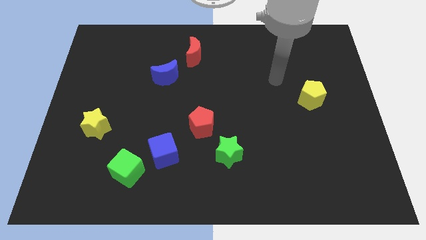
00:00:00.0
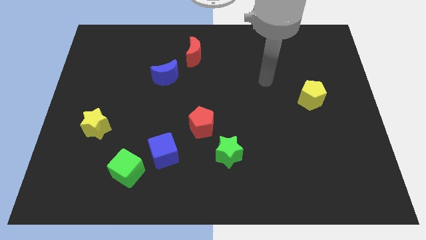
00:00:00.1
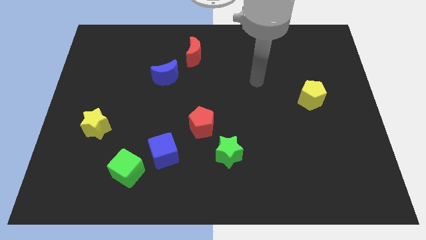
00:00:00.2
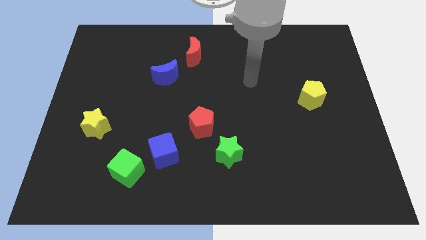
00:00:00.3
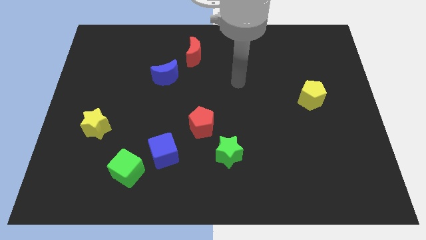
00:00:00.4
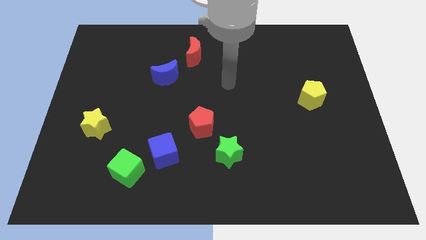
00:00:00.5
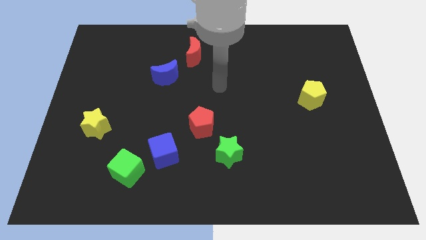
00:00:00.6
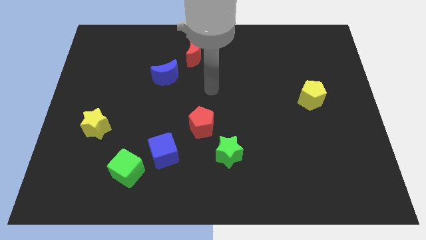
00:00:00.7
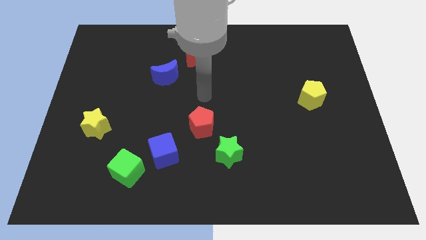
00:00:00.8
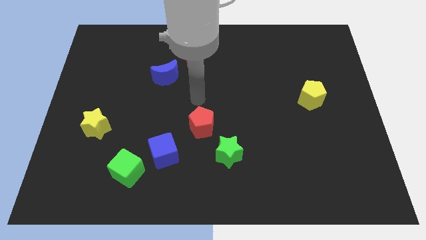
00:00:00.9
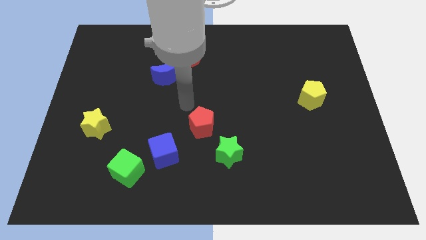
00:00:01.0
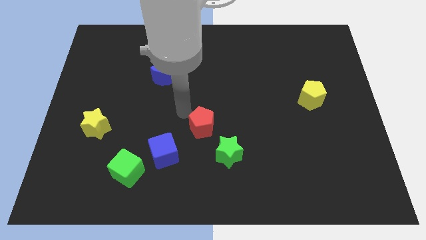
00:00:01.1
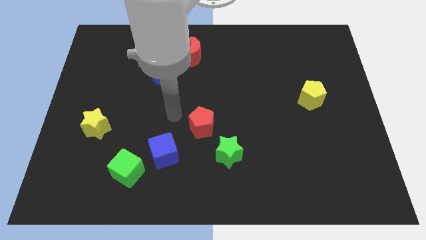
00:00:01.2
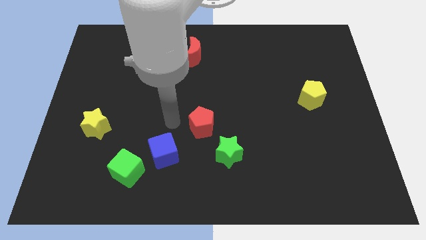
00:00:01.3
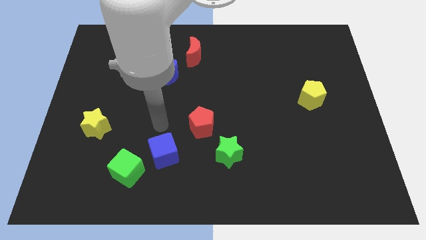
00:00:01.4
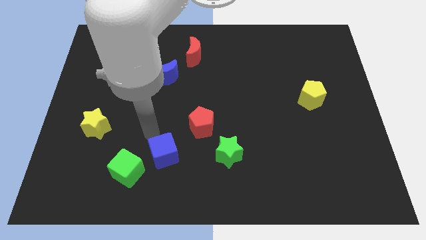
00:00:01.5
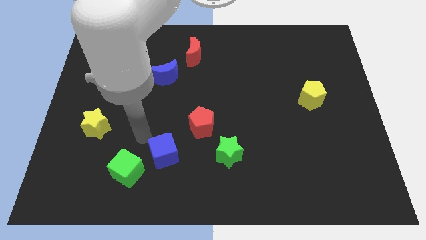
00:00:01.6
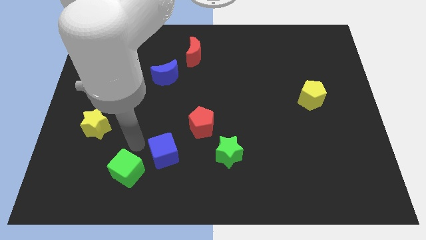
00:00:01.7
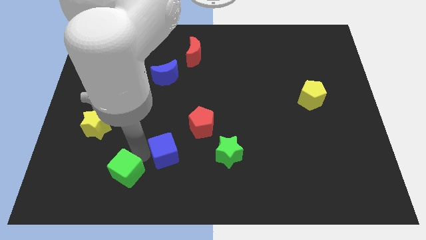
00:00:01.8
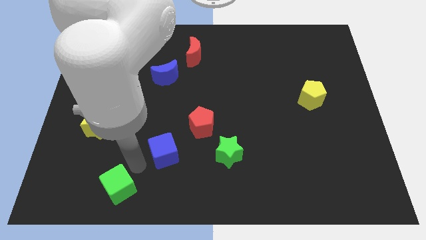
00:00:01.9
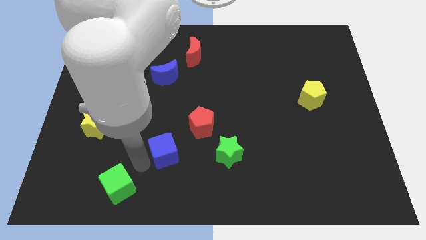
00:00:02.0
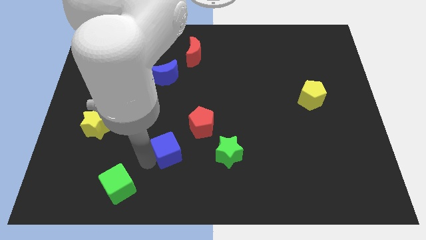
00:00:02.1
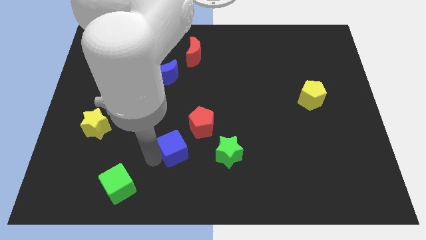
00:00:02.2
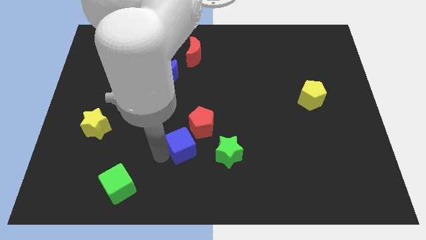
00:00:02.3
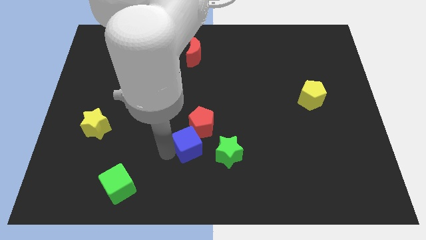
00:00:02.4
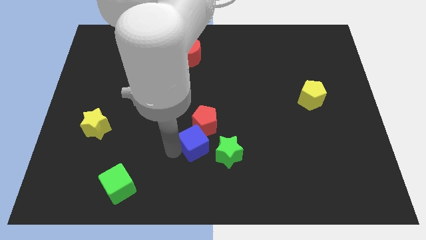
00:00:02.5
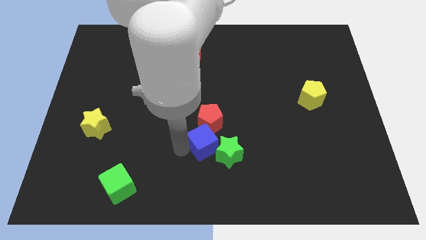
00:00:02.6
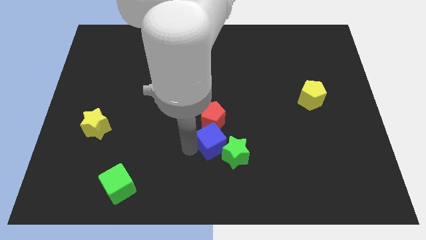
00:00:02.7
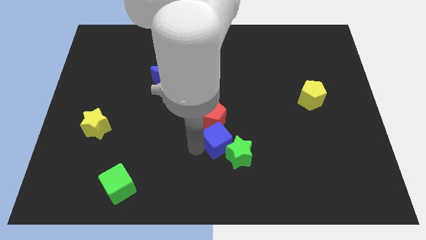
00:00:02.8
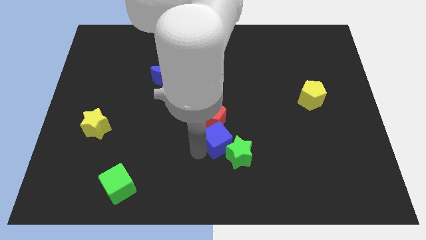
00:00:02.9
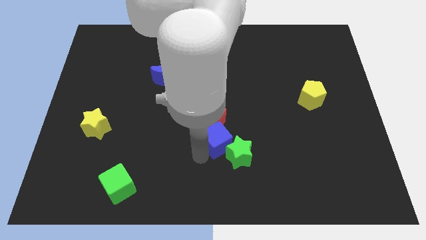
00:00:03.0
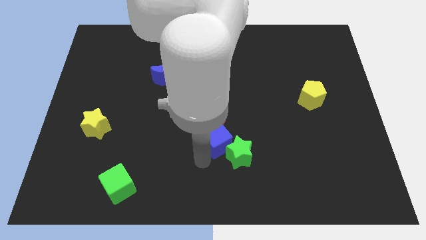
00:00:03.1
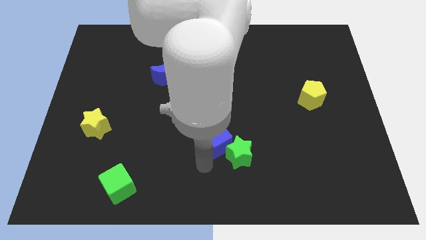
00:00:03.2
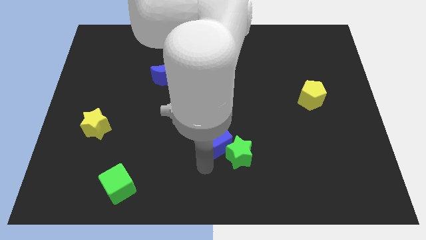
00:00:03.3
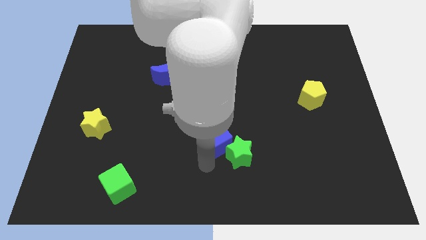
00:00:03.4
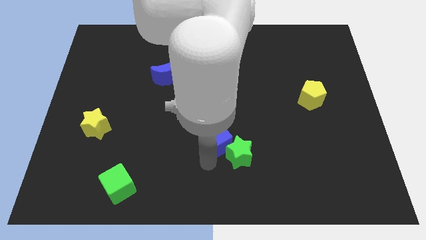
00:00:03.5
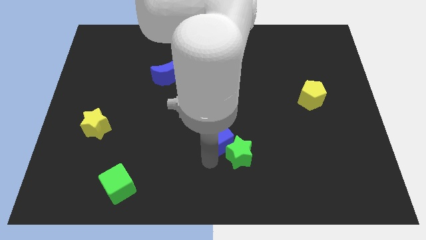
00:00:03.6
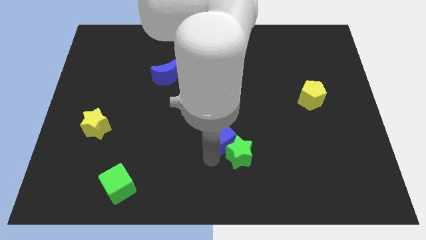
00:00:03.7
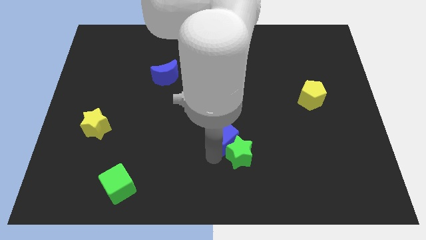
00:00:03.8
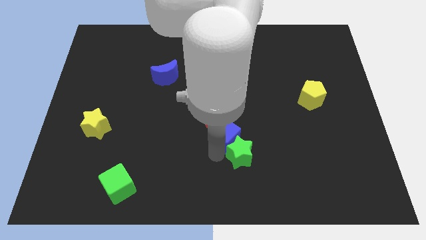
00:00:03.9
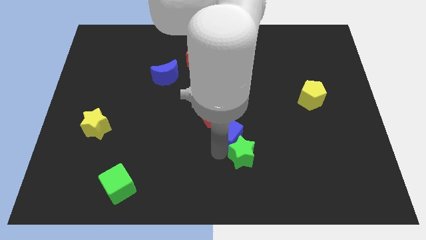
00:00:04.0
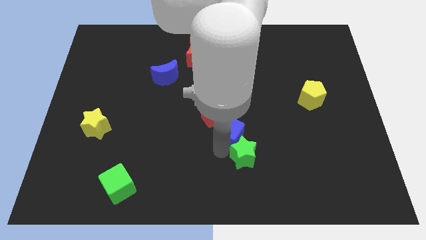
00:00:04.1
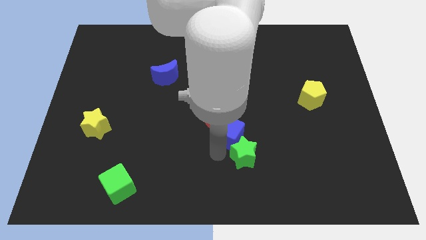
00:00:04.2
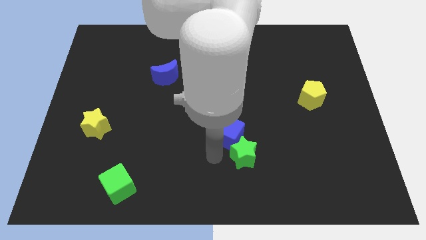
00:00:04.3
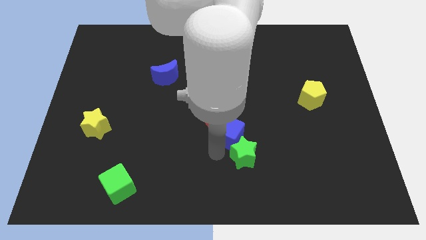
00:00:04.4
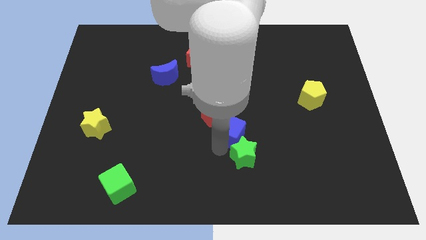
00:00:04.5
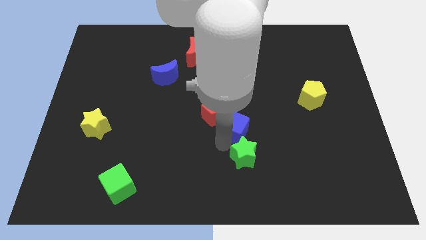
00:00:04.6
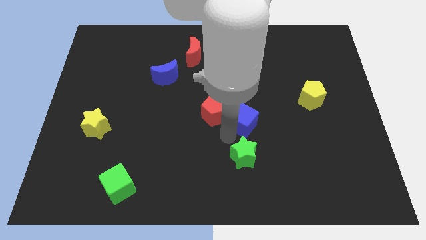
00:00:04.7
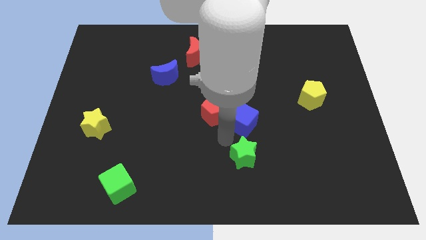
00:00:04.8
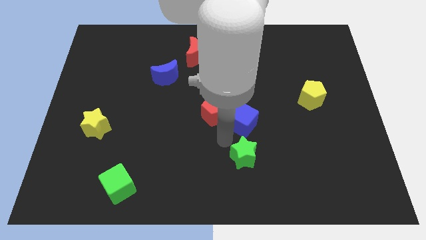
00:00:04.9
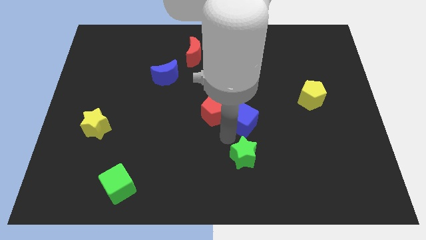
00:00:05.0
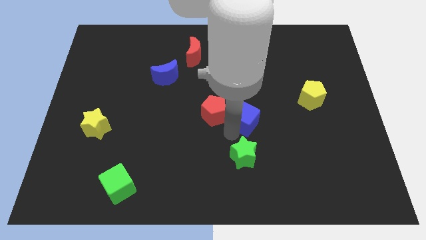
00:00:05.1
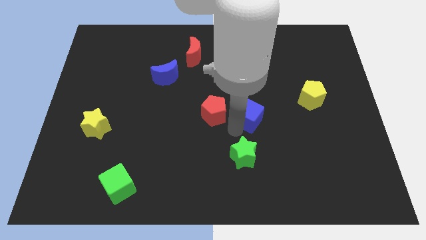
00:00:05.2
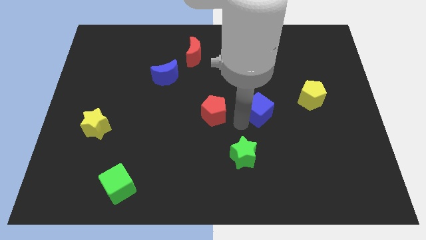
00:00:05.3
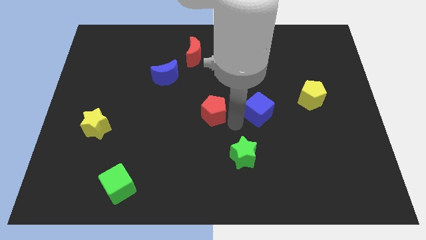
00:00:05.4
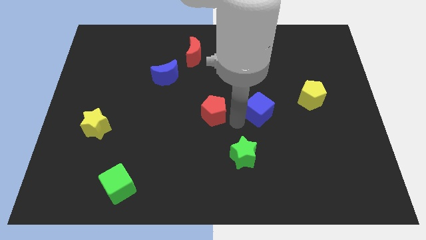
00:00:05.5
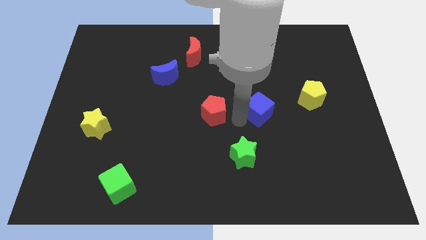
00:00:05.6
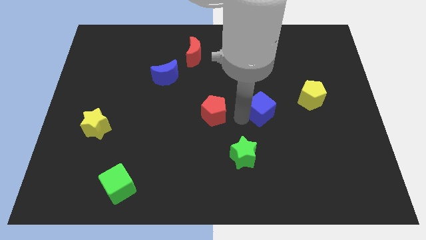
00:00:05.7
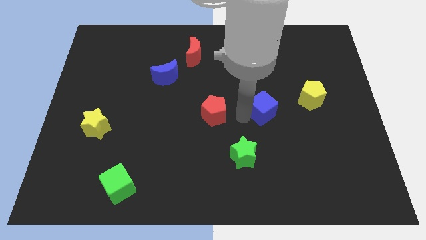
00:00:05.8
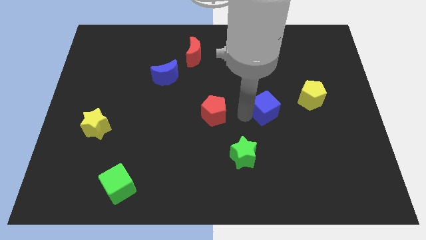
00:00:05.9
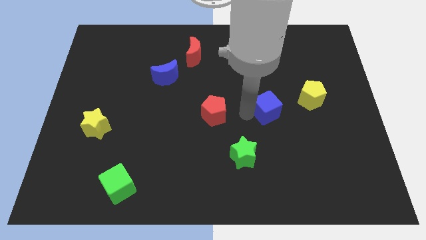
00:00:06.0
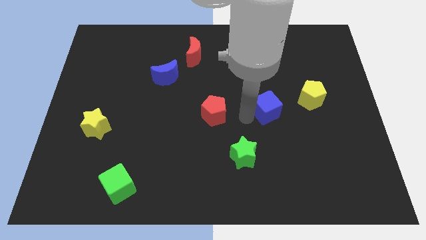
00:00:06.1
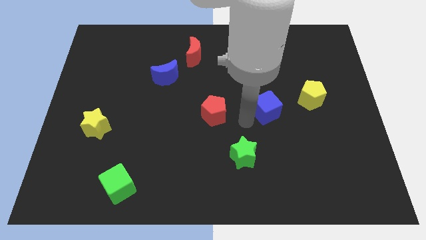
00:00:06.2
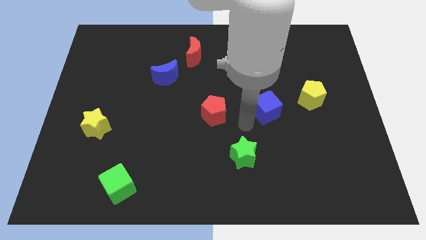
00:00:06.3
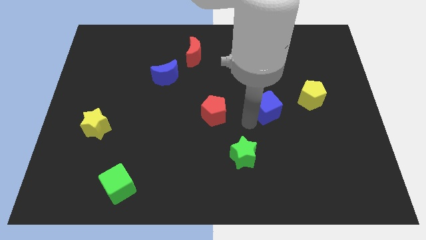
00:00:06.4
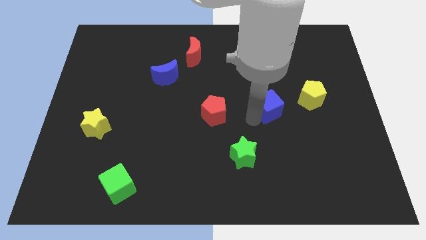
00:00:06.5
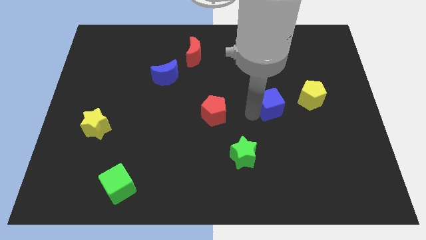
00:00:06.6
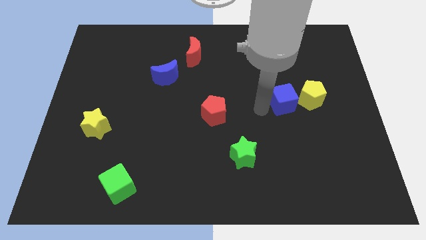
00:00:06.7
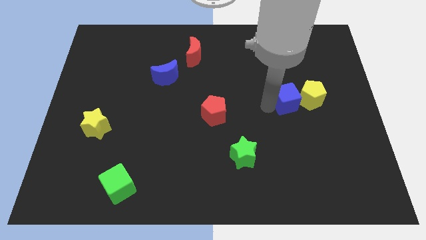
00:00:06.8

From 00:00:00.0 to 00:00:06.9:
put the blue cube close to the yellow pentagon
